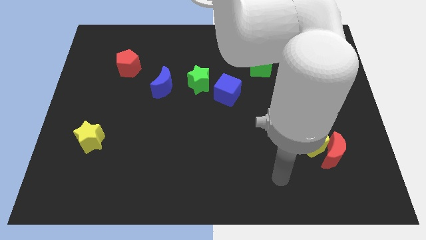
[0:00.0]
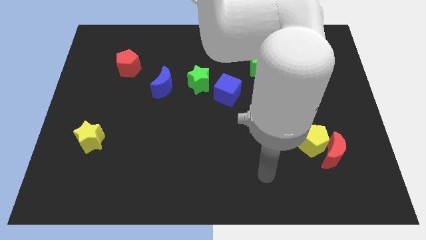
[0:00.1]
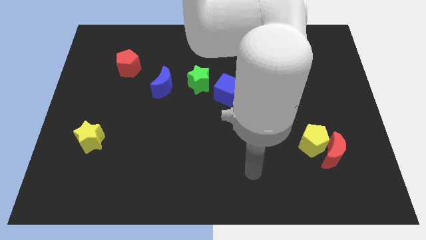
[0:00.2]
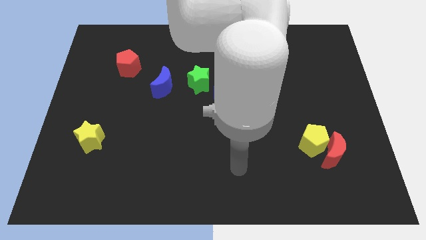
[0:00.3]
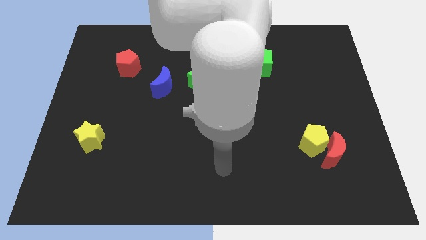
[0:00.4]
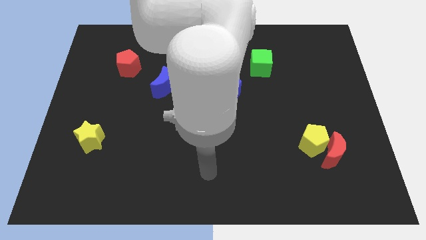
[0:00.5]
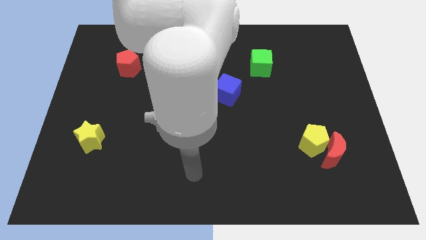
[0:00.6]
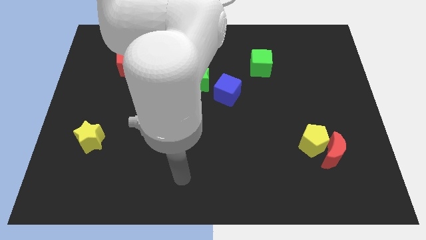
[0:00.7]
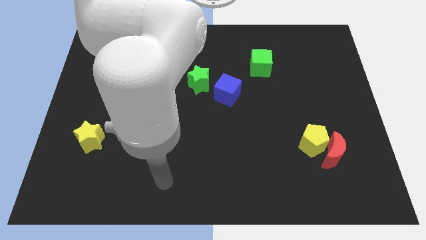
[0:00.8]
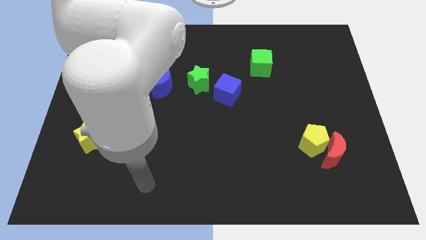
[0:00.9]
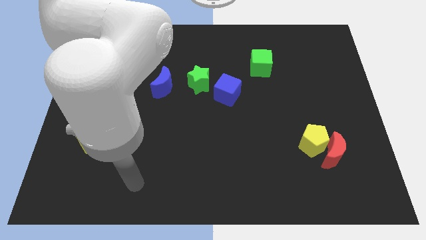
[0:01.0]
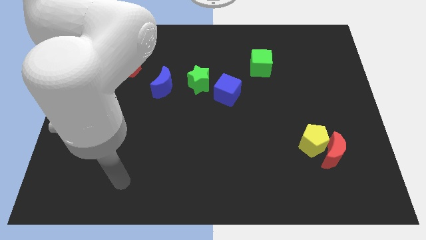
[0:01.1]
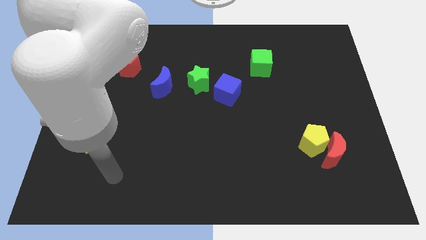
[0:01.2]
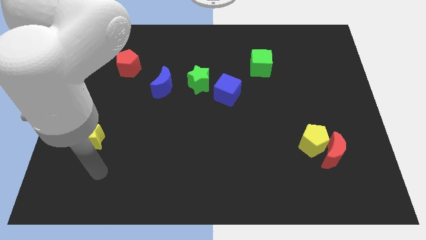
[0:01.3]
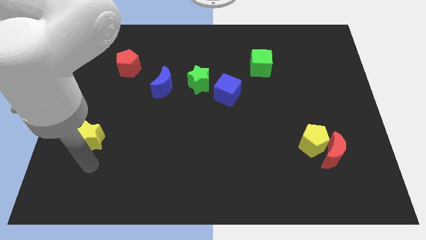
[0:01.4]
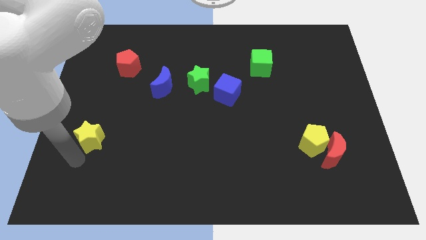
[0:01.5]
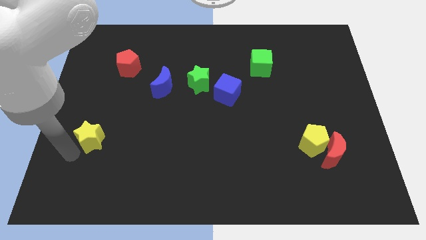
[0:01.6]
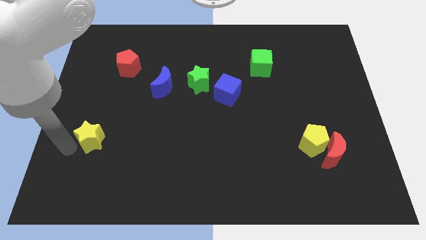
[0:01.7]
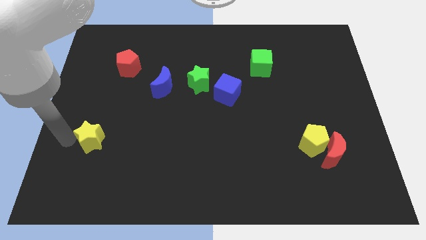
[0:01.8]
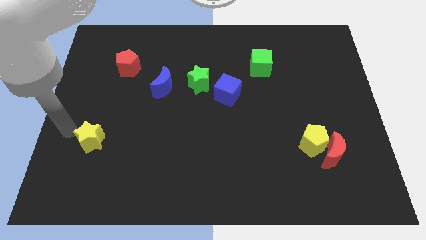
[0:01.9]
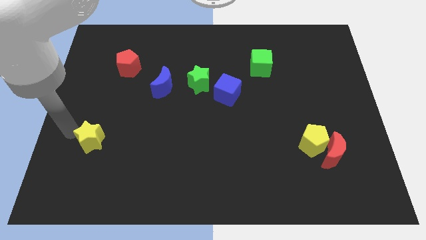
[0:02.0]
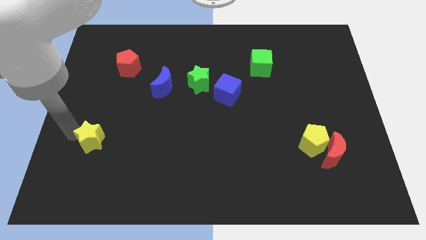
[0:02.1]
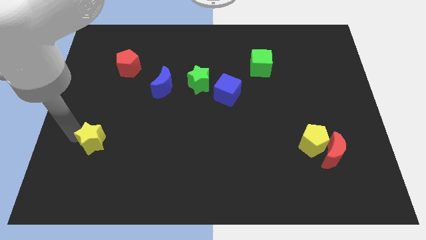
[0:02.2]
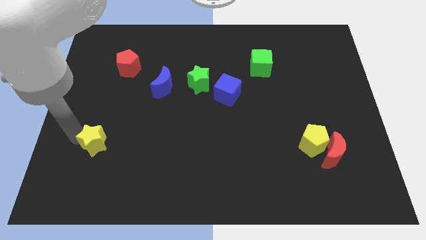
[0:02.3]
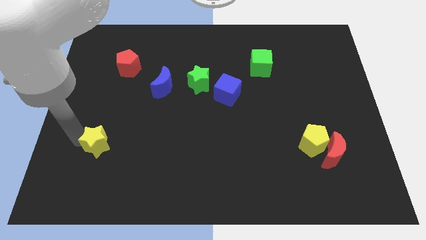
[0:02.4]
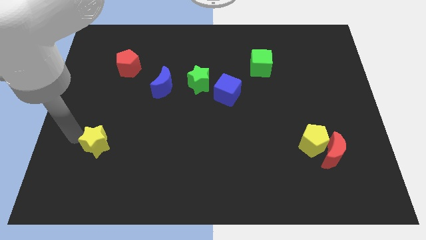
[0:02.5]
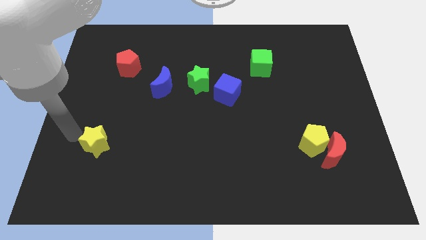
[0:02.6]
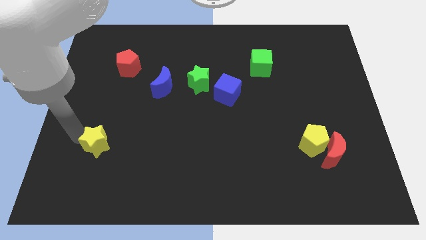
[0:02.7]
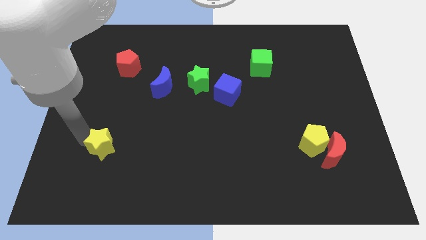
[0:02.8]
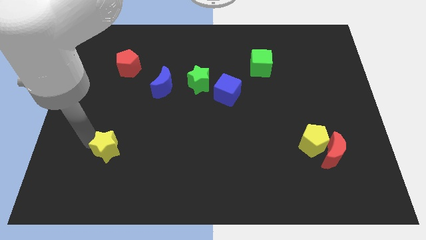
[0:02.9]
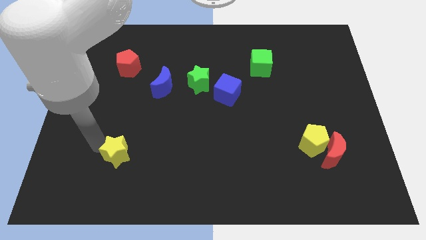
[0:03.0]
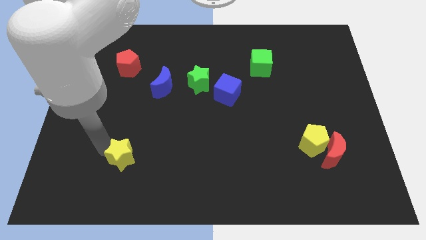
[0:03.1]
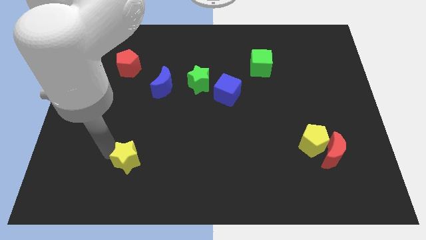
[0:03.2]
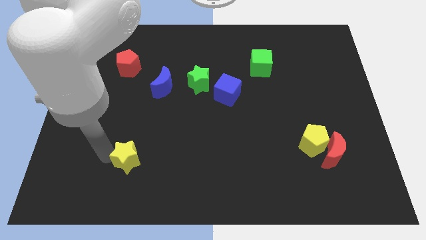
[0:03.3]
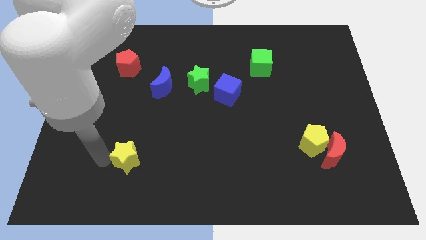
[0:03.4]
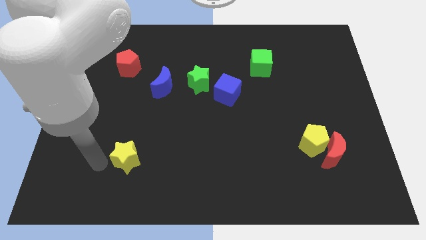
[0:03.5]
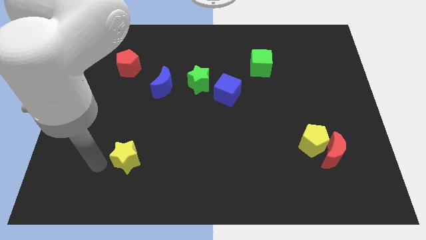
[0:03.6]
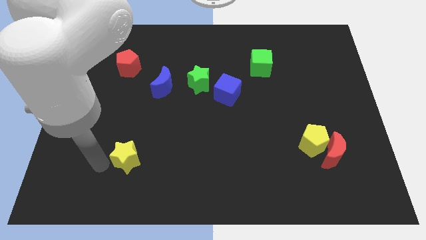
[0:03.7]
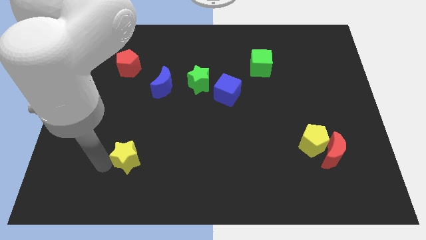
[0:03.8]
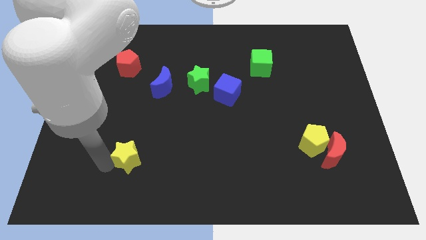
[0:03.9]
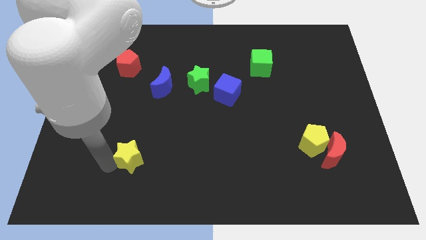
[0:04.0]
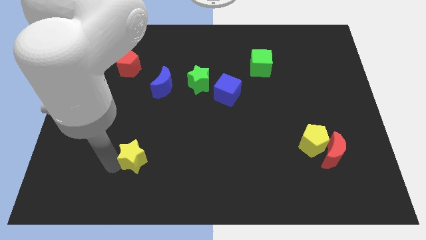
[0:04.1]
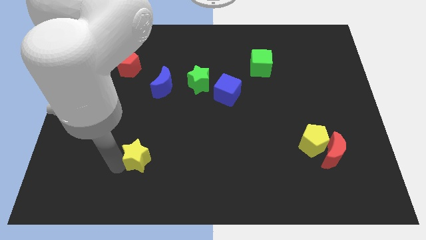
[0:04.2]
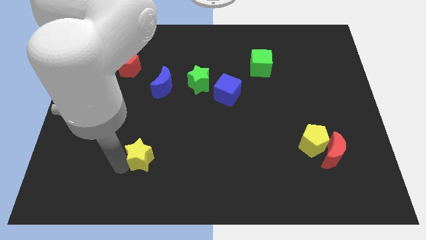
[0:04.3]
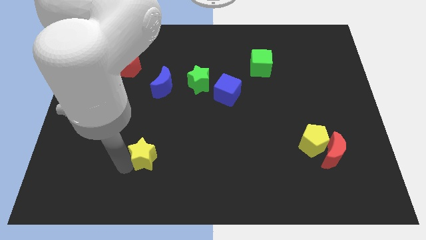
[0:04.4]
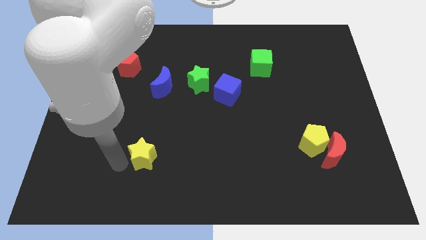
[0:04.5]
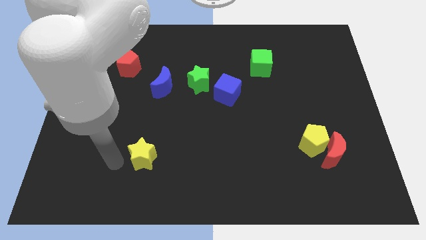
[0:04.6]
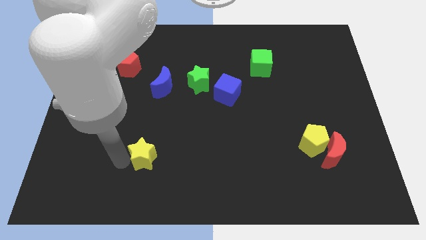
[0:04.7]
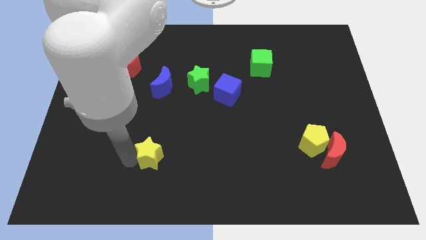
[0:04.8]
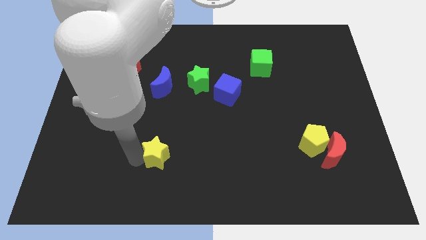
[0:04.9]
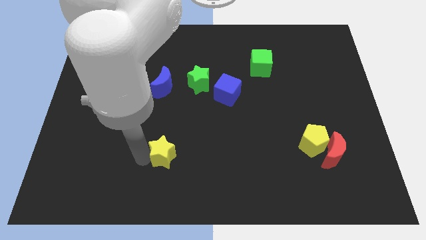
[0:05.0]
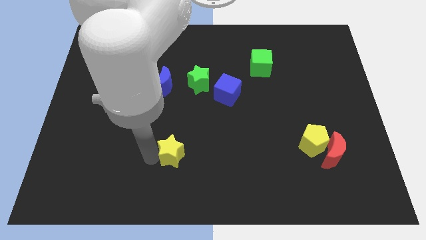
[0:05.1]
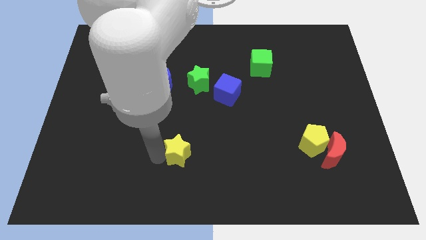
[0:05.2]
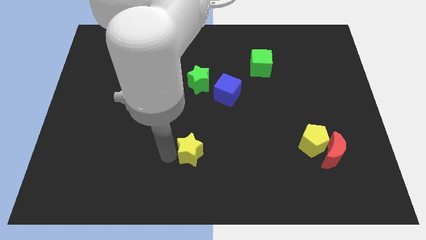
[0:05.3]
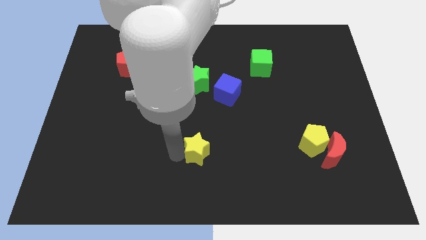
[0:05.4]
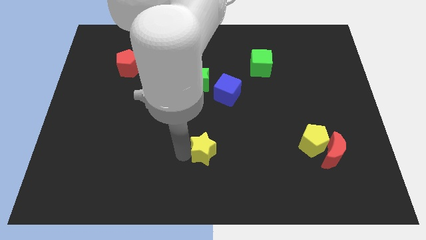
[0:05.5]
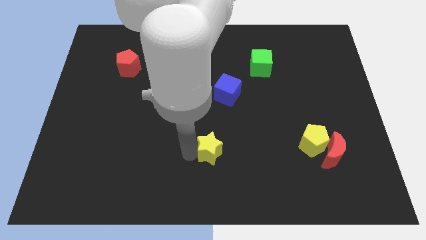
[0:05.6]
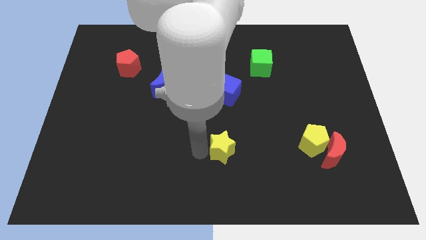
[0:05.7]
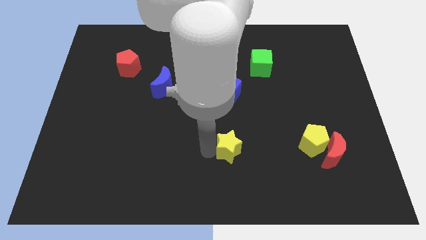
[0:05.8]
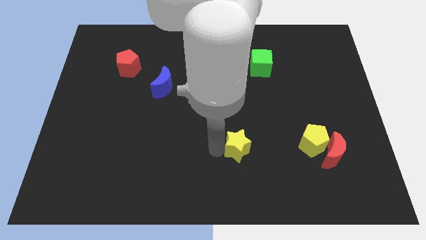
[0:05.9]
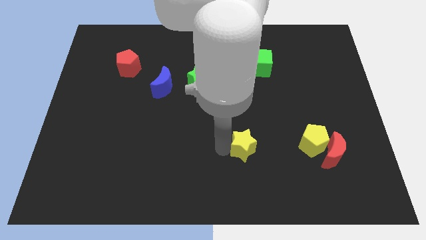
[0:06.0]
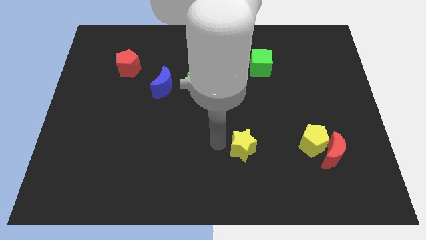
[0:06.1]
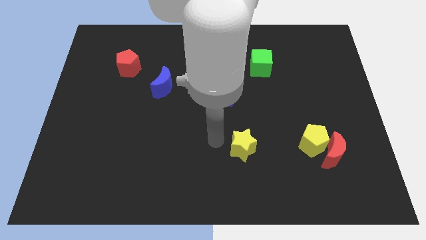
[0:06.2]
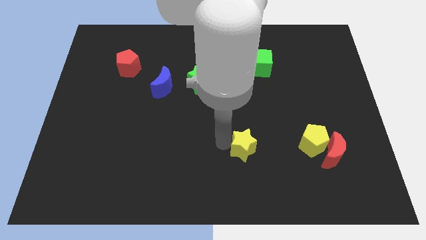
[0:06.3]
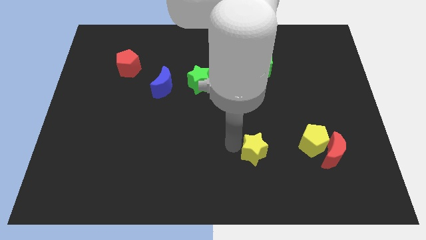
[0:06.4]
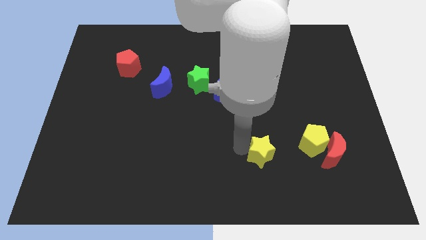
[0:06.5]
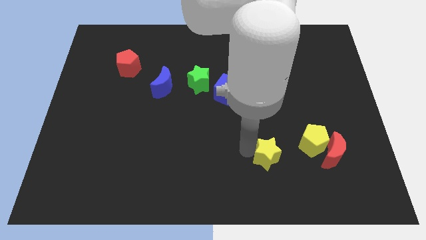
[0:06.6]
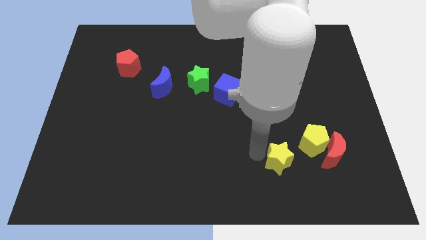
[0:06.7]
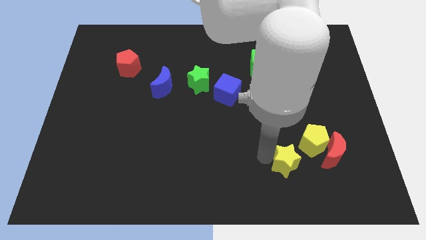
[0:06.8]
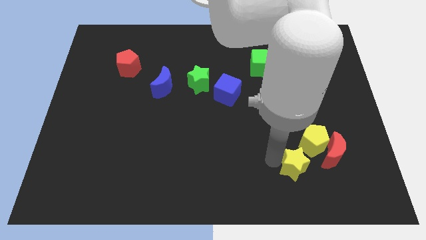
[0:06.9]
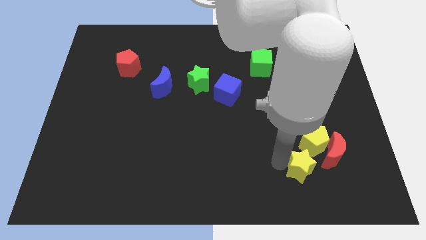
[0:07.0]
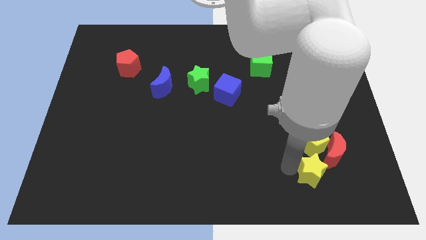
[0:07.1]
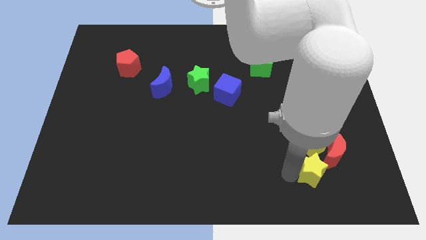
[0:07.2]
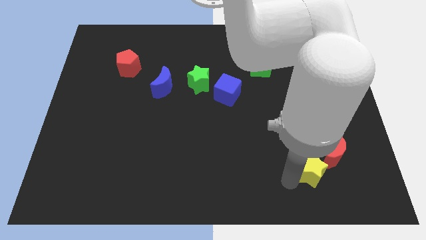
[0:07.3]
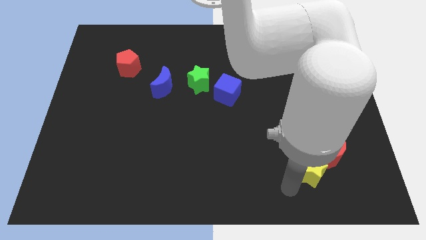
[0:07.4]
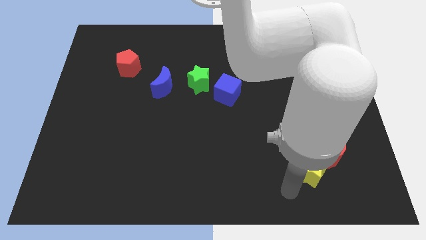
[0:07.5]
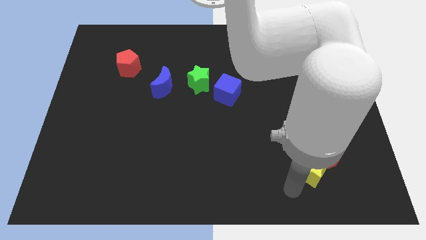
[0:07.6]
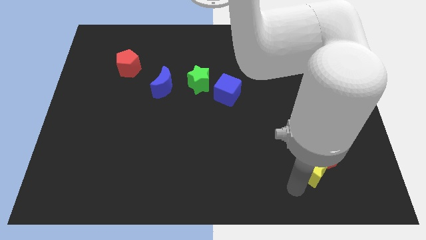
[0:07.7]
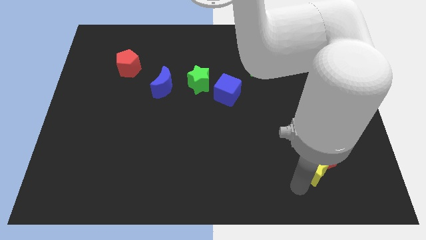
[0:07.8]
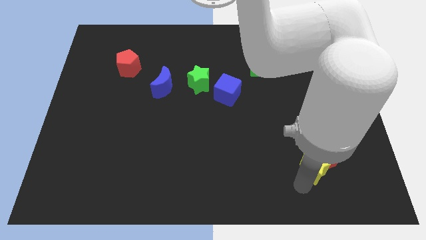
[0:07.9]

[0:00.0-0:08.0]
put the yellow star towards the red moon
